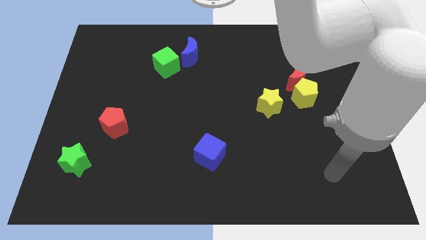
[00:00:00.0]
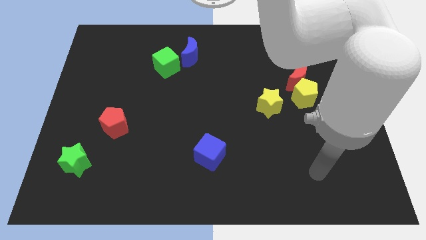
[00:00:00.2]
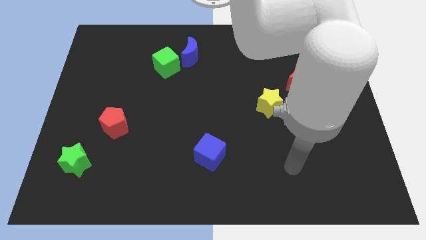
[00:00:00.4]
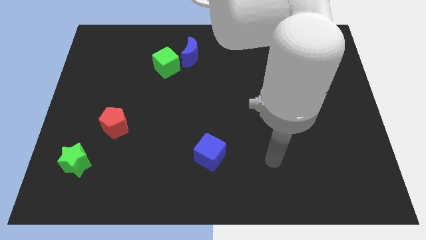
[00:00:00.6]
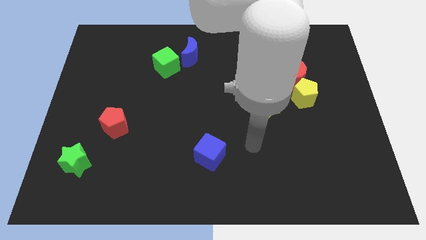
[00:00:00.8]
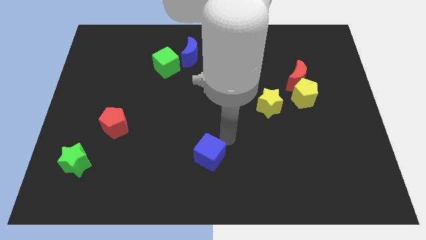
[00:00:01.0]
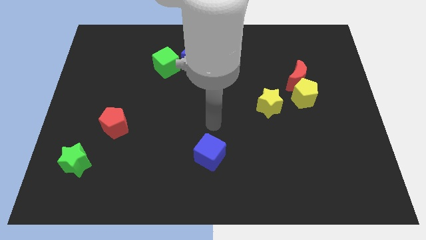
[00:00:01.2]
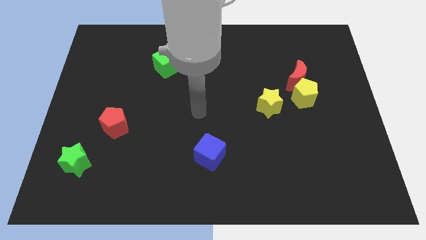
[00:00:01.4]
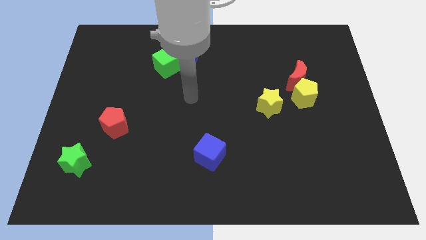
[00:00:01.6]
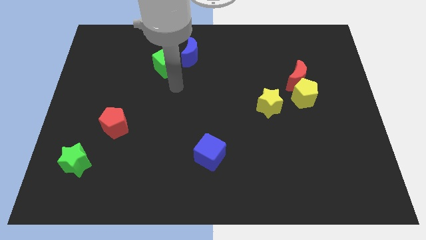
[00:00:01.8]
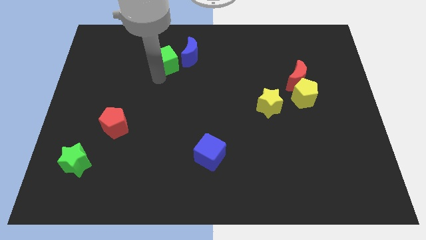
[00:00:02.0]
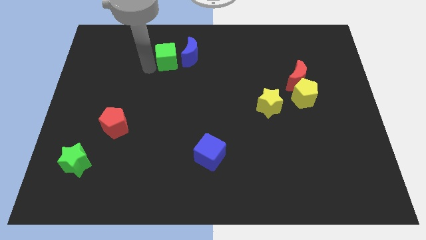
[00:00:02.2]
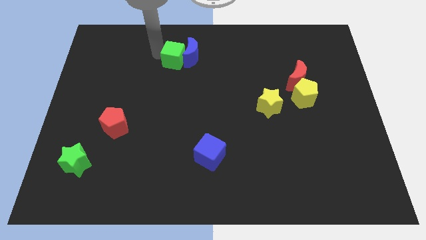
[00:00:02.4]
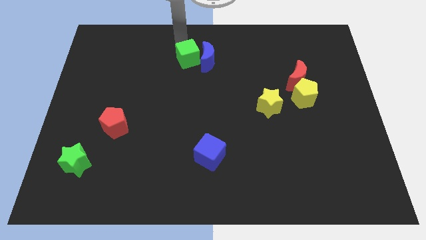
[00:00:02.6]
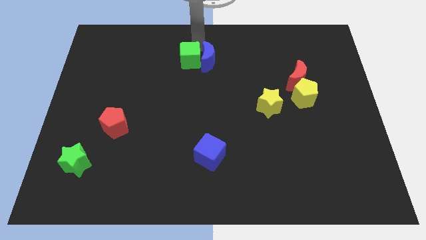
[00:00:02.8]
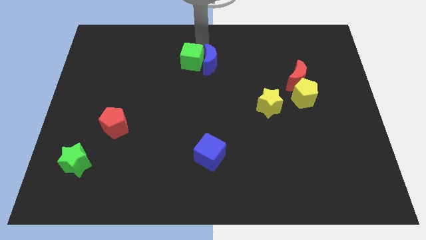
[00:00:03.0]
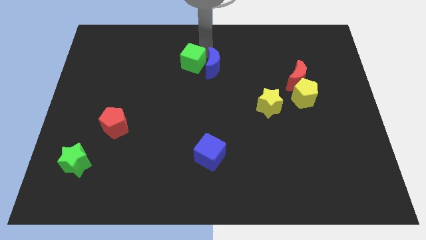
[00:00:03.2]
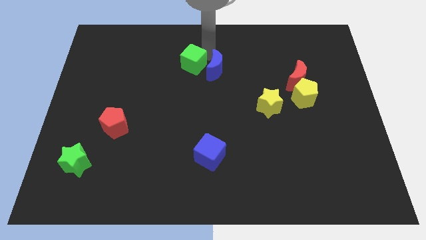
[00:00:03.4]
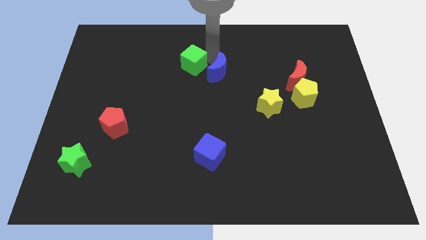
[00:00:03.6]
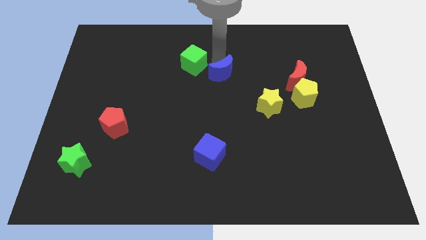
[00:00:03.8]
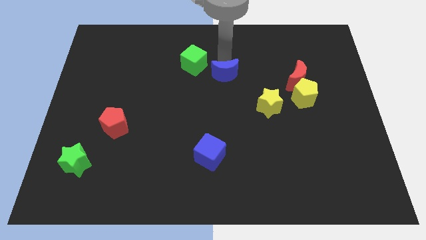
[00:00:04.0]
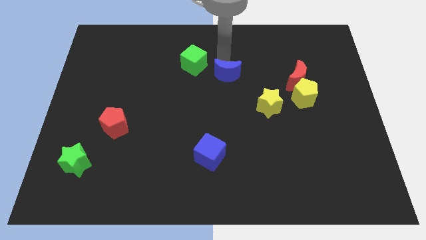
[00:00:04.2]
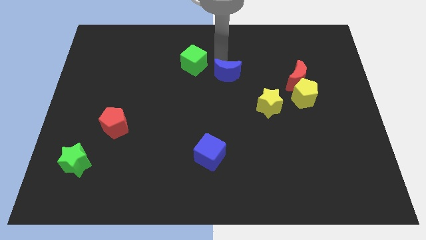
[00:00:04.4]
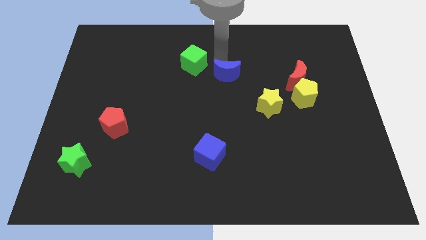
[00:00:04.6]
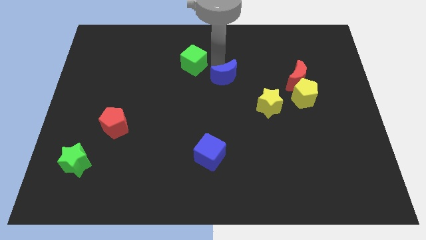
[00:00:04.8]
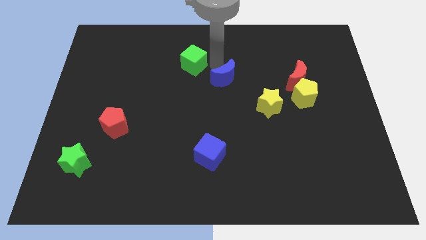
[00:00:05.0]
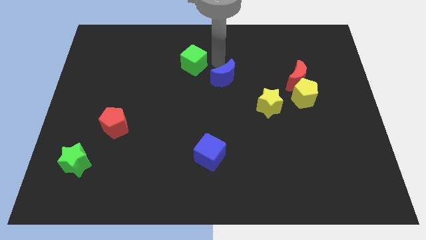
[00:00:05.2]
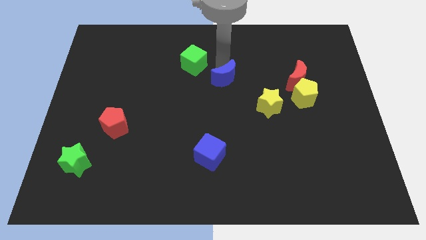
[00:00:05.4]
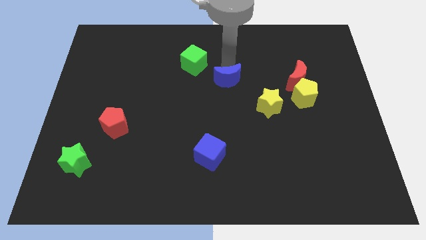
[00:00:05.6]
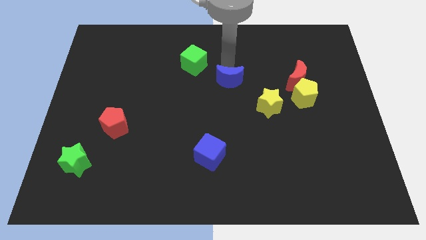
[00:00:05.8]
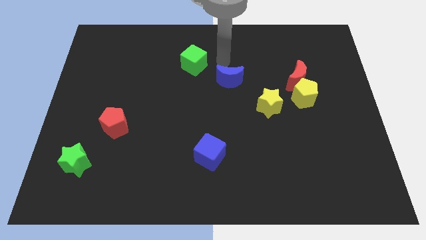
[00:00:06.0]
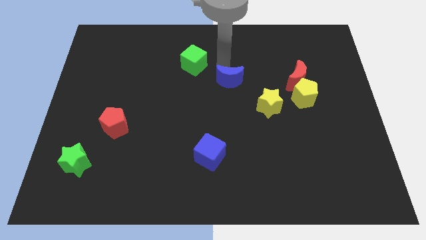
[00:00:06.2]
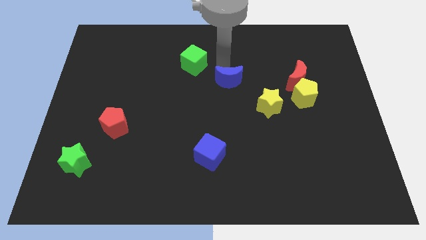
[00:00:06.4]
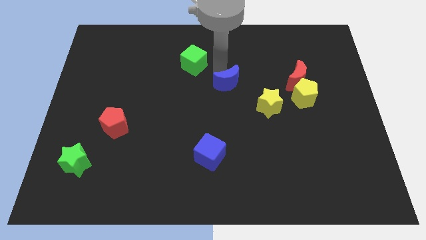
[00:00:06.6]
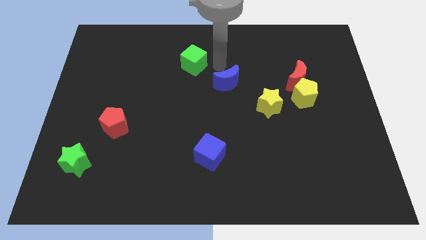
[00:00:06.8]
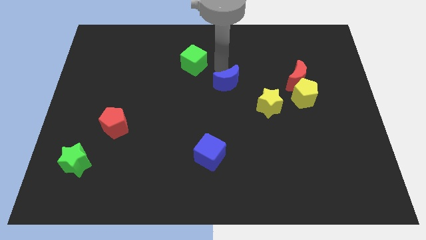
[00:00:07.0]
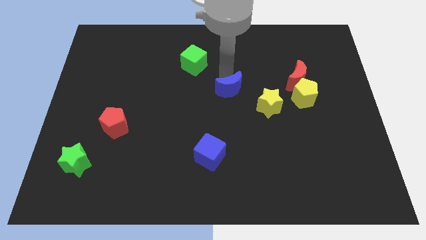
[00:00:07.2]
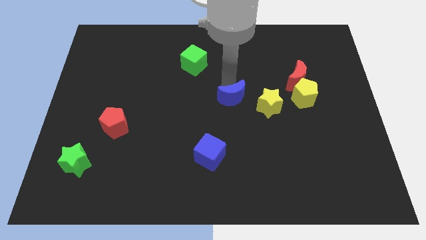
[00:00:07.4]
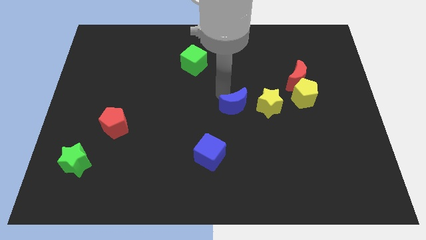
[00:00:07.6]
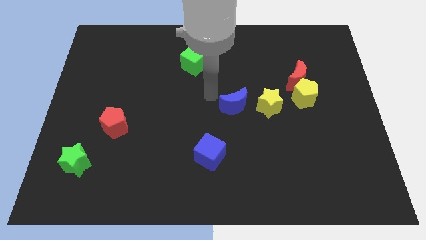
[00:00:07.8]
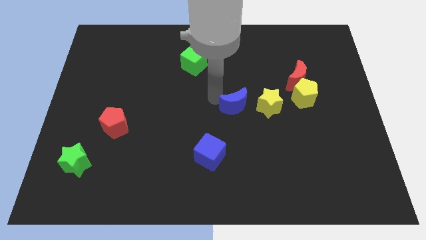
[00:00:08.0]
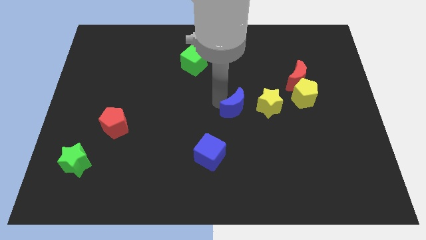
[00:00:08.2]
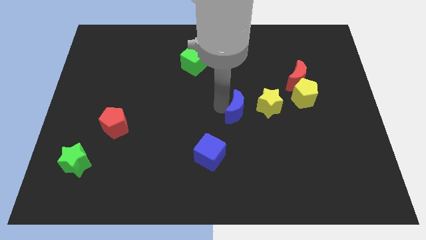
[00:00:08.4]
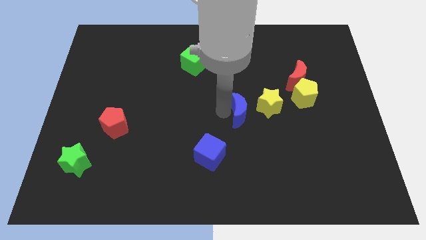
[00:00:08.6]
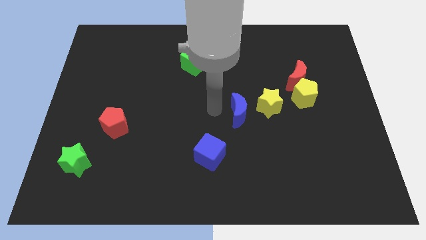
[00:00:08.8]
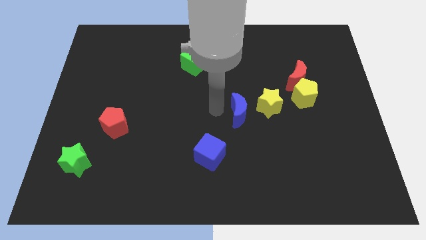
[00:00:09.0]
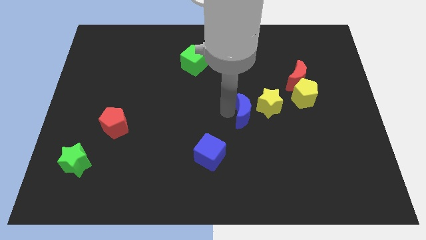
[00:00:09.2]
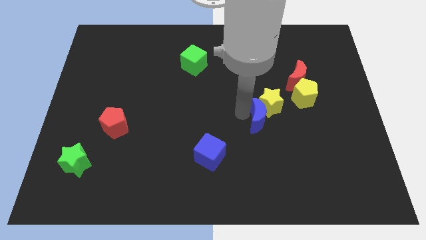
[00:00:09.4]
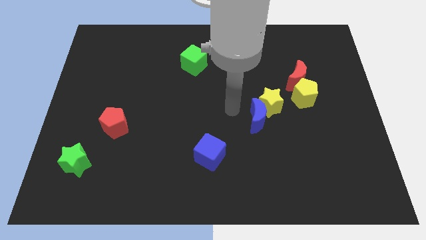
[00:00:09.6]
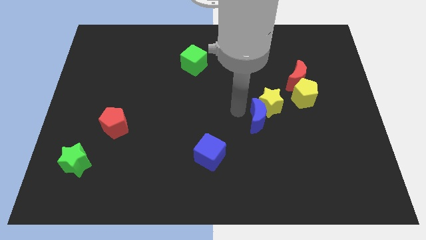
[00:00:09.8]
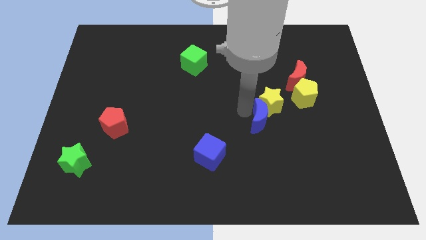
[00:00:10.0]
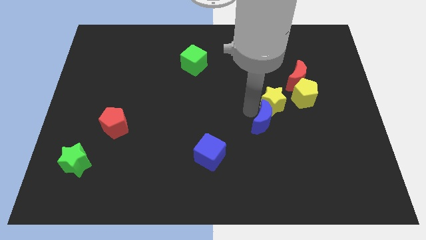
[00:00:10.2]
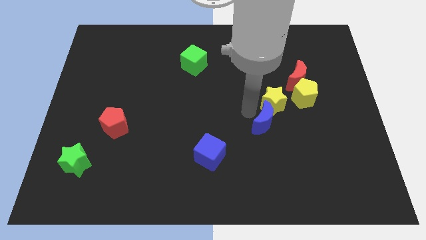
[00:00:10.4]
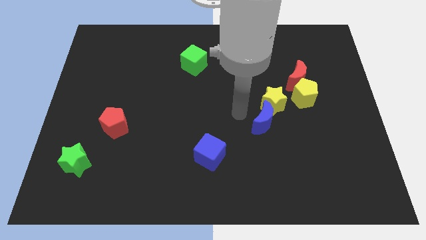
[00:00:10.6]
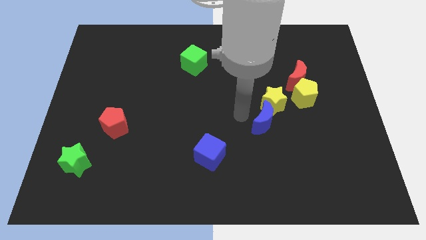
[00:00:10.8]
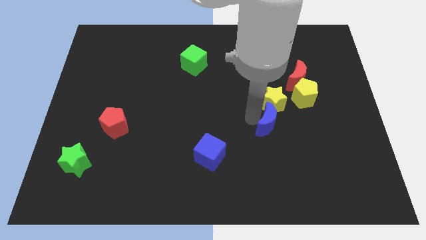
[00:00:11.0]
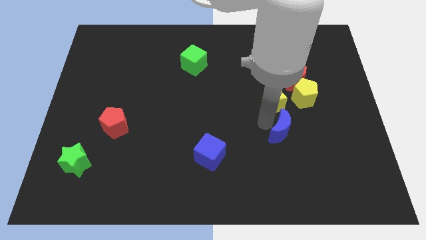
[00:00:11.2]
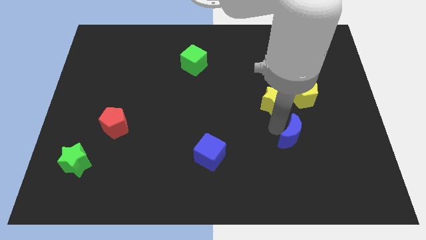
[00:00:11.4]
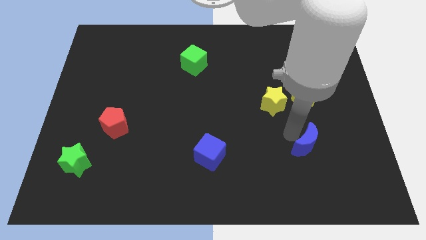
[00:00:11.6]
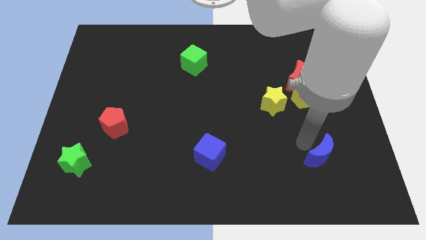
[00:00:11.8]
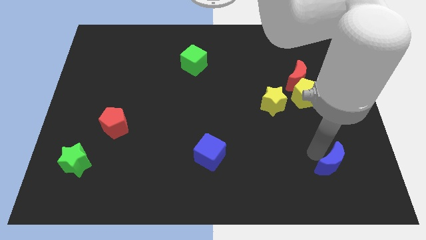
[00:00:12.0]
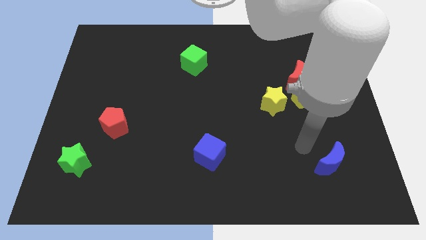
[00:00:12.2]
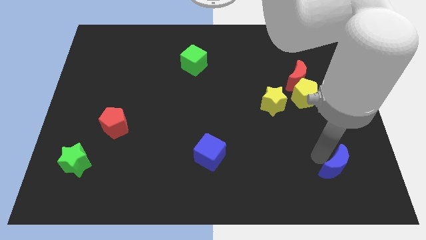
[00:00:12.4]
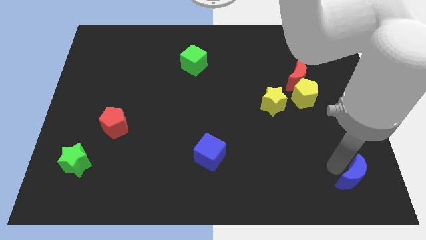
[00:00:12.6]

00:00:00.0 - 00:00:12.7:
move the blue moon to the bottom right corner

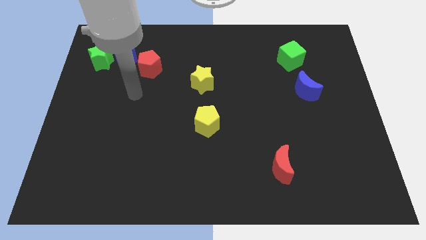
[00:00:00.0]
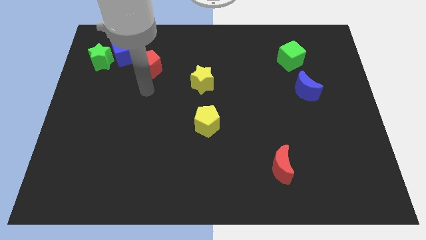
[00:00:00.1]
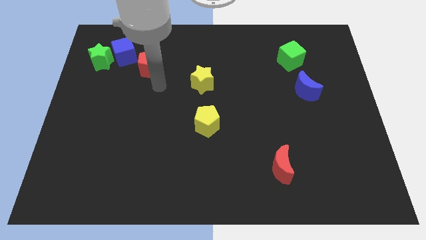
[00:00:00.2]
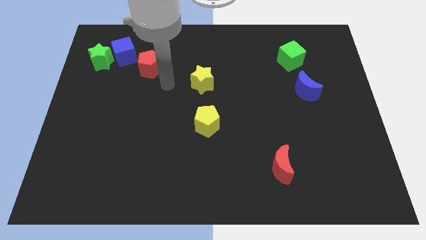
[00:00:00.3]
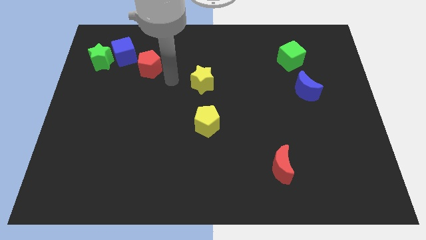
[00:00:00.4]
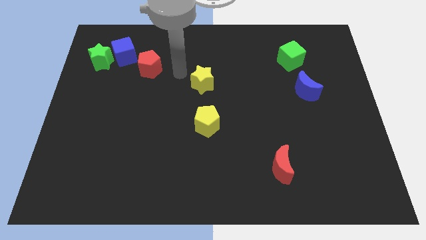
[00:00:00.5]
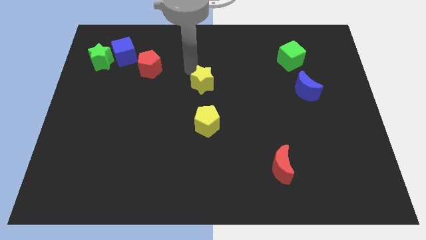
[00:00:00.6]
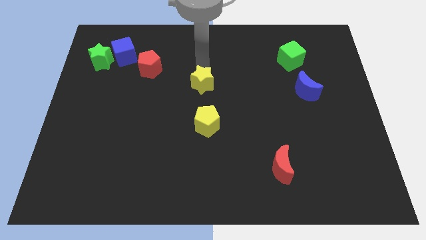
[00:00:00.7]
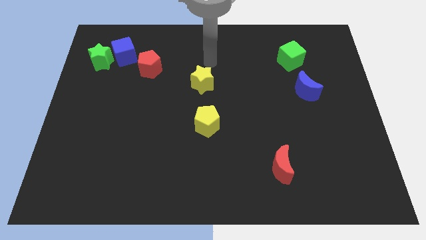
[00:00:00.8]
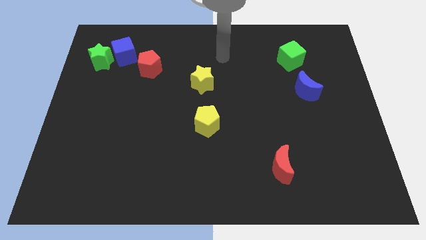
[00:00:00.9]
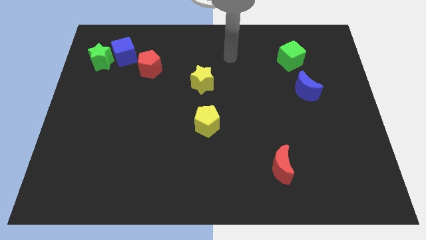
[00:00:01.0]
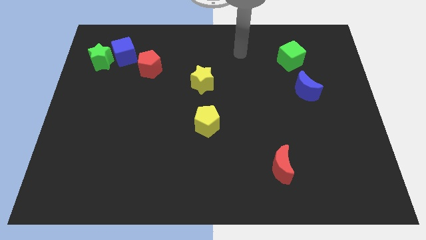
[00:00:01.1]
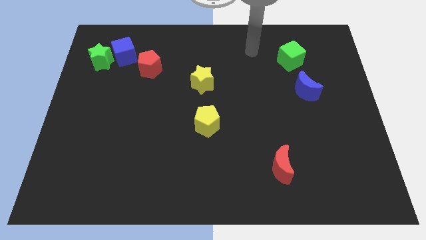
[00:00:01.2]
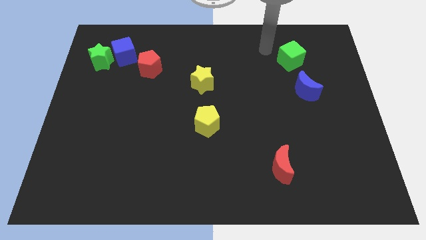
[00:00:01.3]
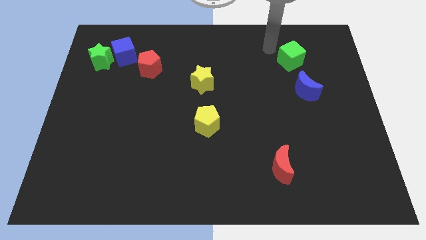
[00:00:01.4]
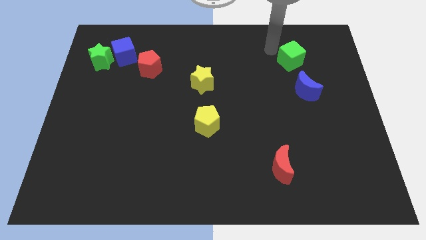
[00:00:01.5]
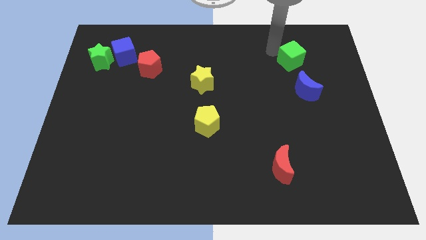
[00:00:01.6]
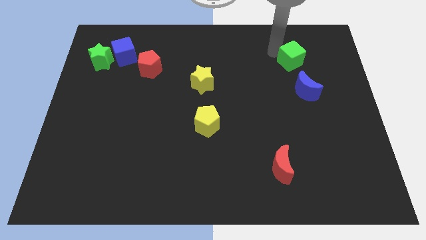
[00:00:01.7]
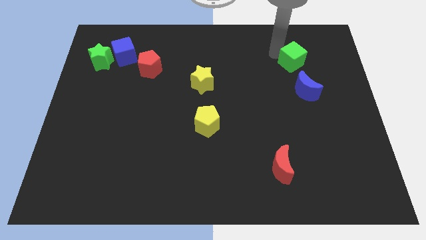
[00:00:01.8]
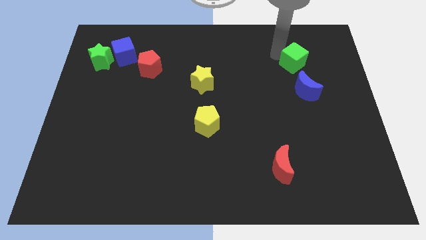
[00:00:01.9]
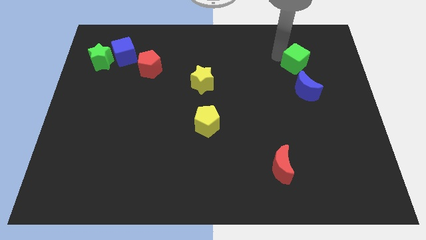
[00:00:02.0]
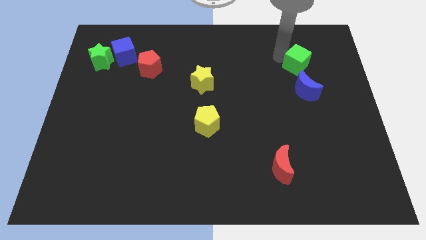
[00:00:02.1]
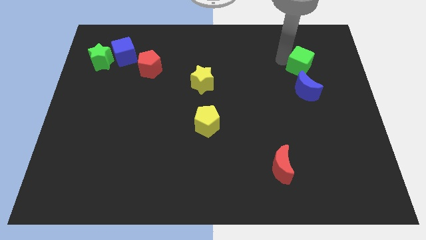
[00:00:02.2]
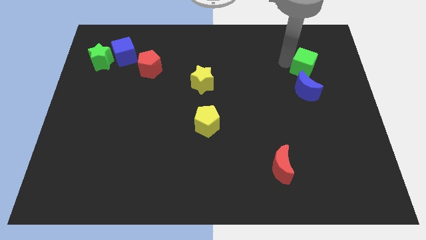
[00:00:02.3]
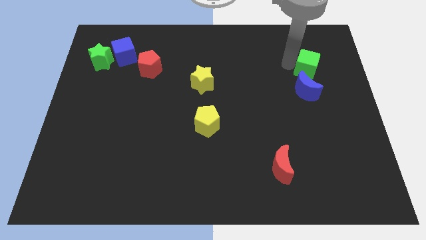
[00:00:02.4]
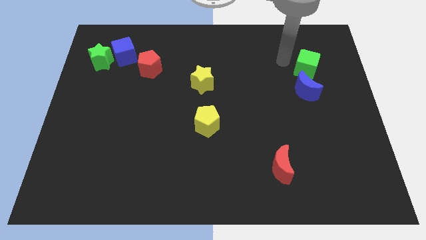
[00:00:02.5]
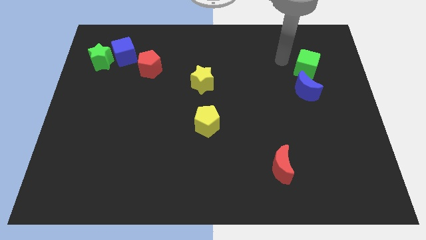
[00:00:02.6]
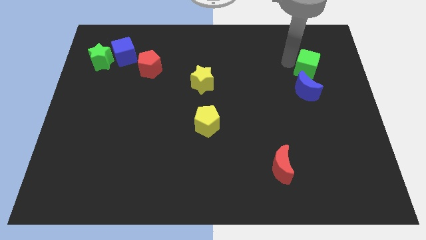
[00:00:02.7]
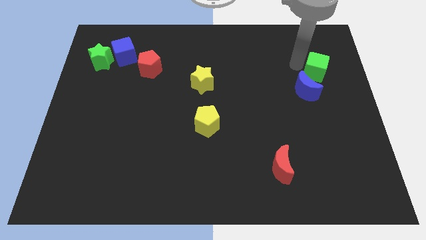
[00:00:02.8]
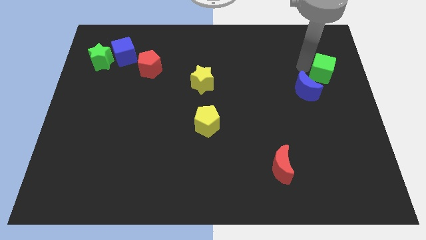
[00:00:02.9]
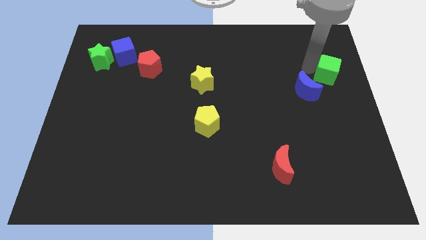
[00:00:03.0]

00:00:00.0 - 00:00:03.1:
push the green cube to the center right
